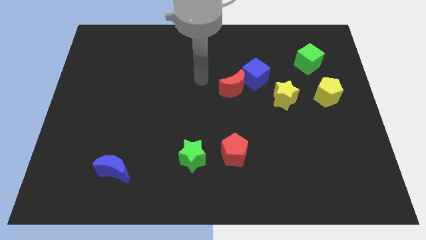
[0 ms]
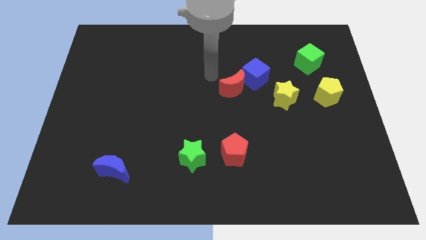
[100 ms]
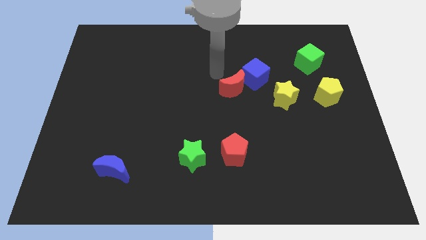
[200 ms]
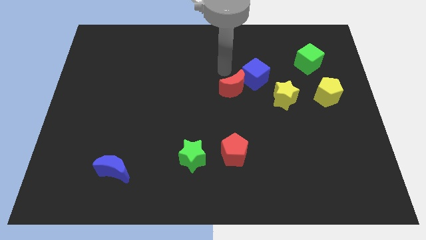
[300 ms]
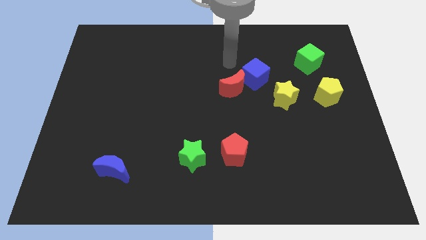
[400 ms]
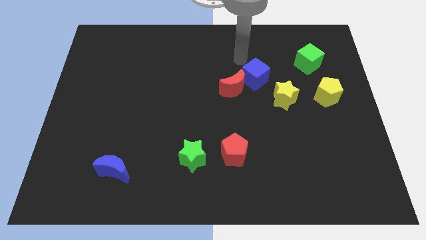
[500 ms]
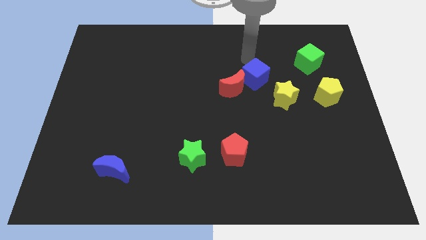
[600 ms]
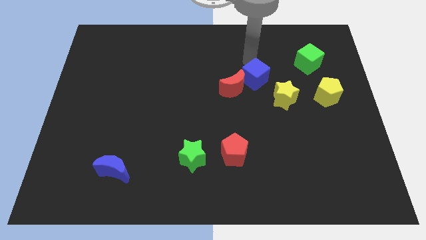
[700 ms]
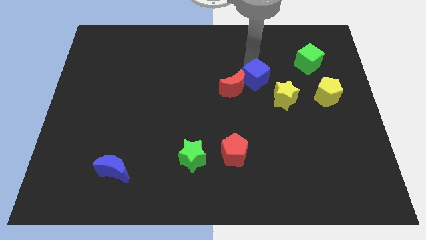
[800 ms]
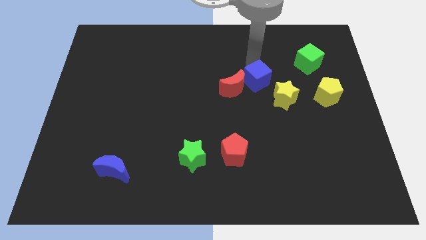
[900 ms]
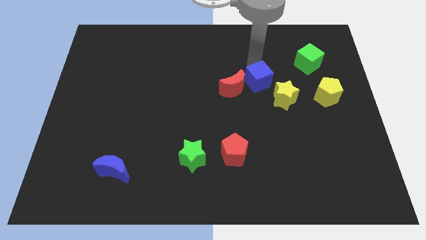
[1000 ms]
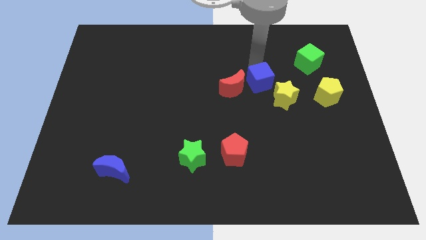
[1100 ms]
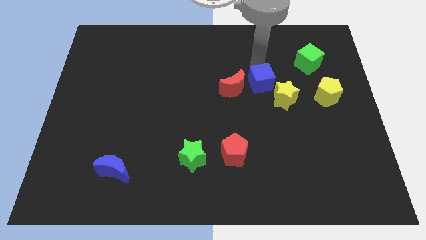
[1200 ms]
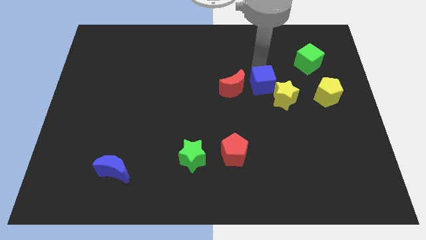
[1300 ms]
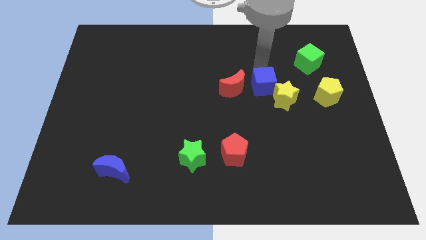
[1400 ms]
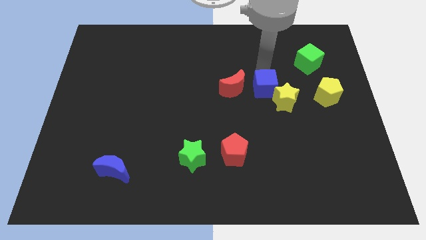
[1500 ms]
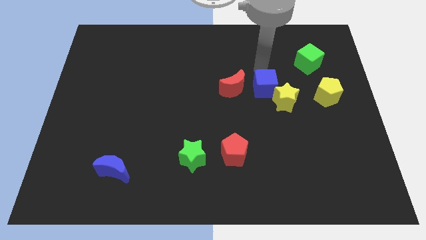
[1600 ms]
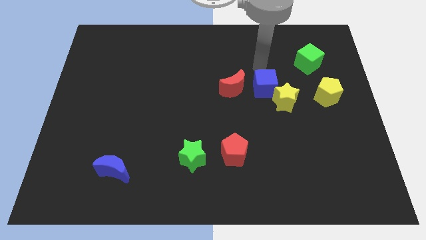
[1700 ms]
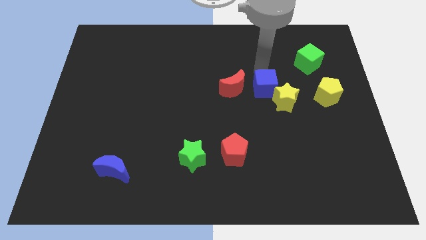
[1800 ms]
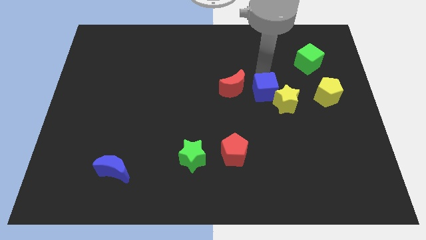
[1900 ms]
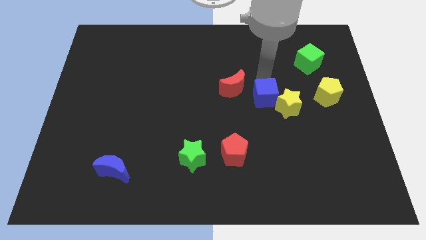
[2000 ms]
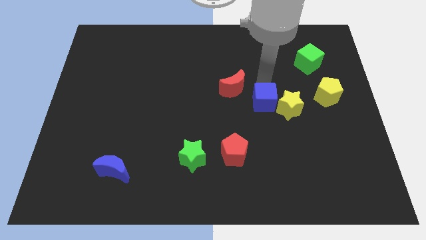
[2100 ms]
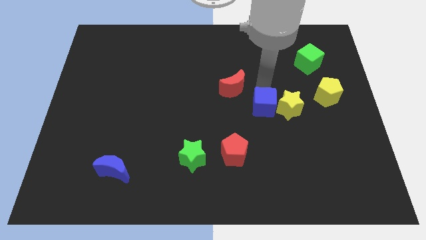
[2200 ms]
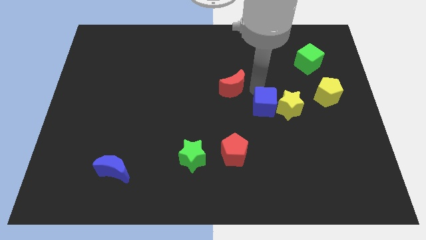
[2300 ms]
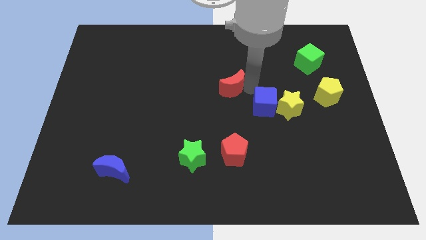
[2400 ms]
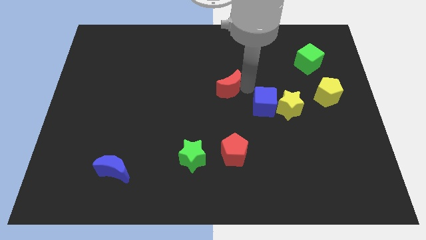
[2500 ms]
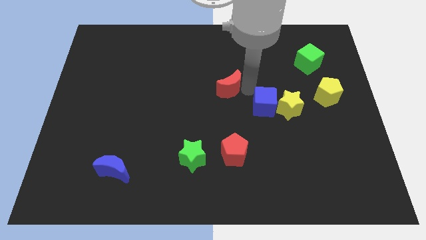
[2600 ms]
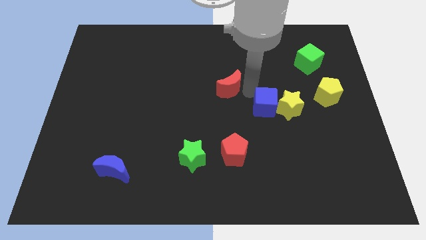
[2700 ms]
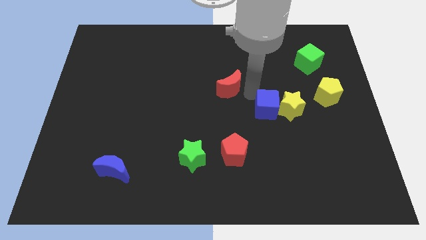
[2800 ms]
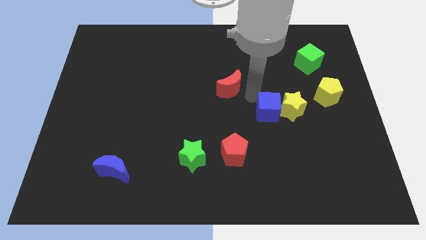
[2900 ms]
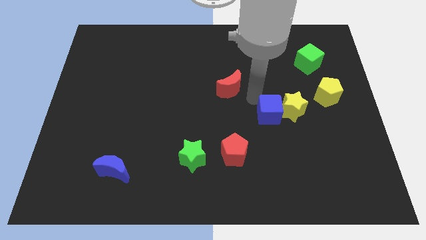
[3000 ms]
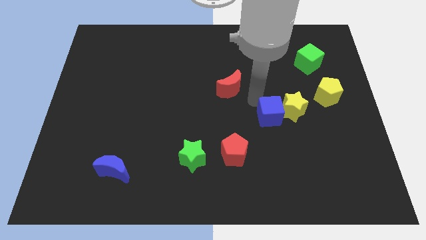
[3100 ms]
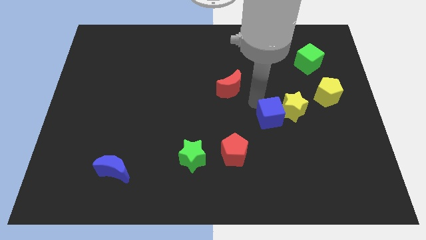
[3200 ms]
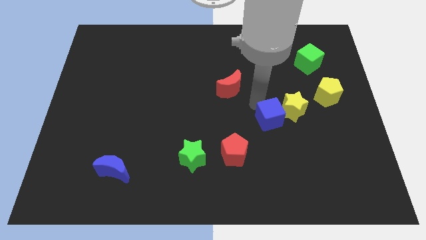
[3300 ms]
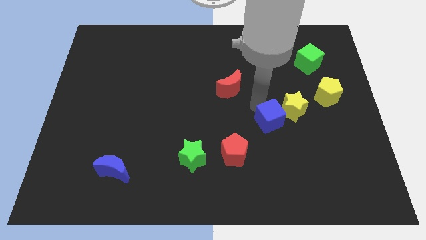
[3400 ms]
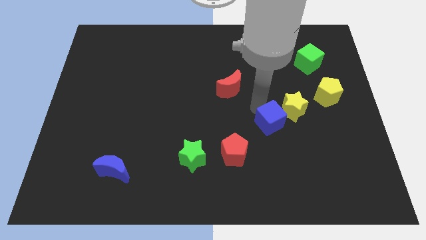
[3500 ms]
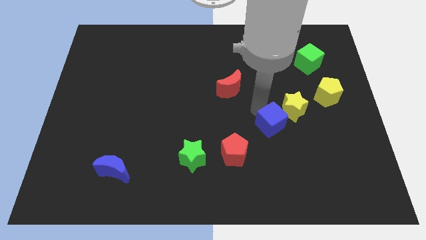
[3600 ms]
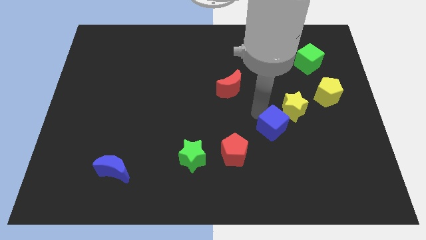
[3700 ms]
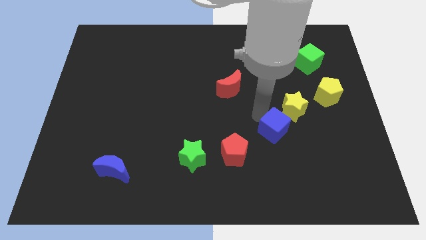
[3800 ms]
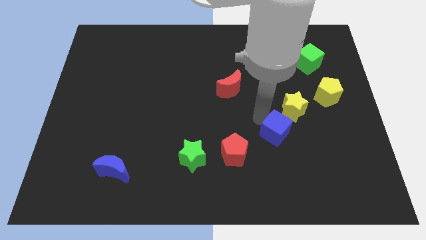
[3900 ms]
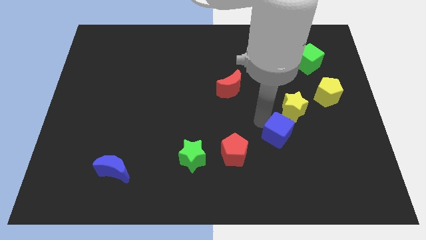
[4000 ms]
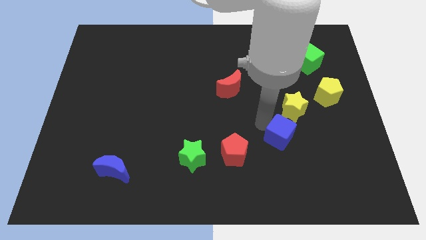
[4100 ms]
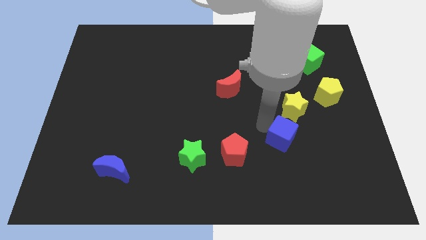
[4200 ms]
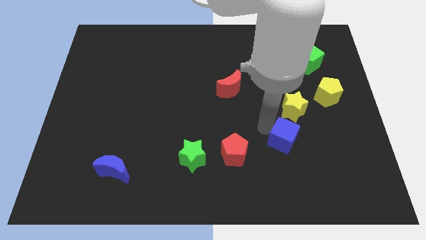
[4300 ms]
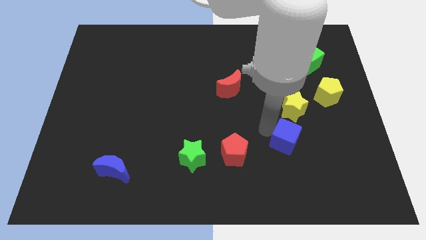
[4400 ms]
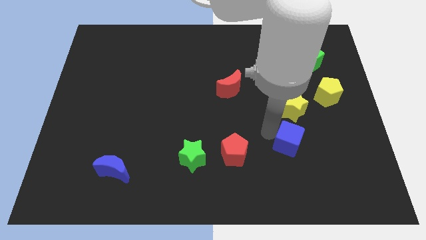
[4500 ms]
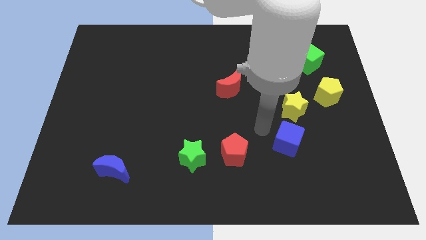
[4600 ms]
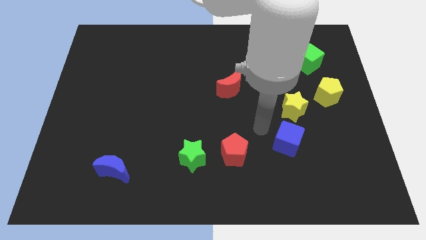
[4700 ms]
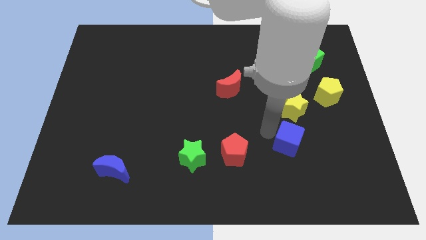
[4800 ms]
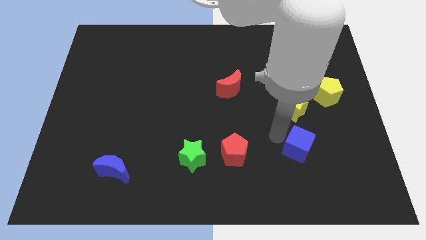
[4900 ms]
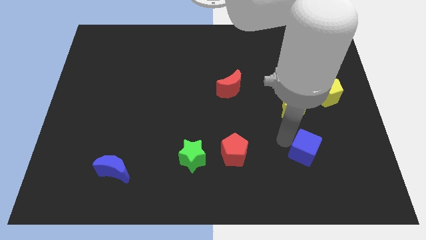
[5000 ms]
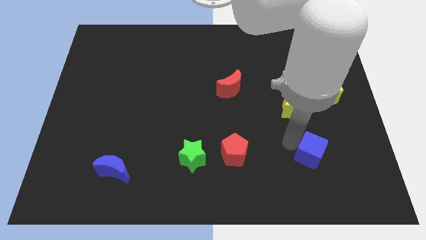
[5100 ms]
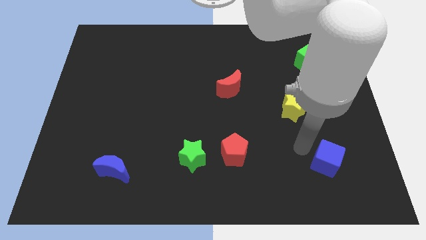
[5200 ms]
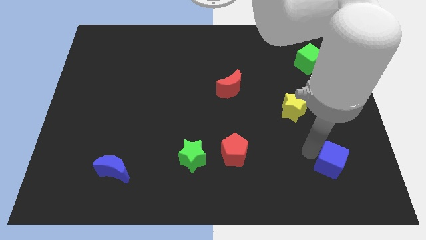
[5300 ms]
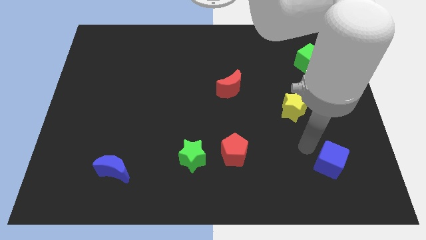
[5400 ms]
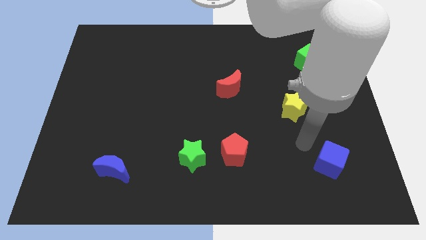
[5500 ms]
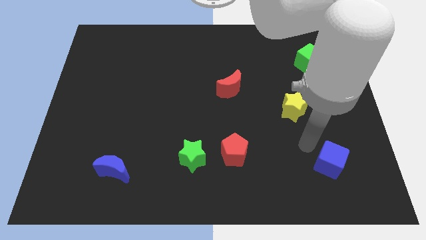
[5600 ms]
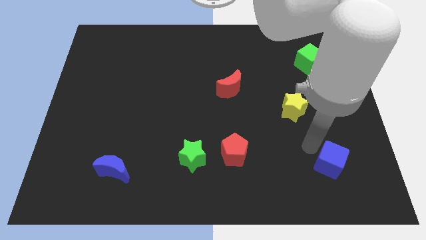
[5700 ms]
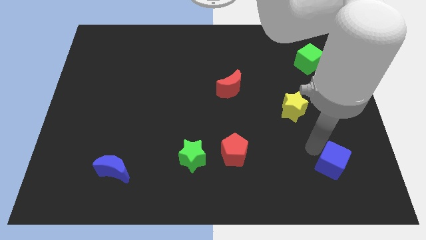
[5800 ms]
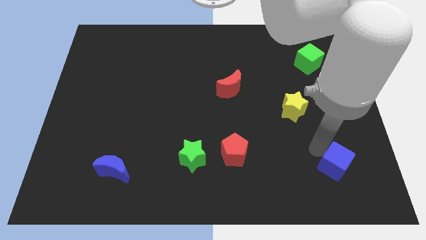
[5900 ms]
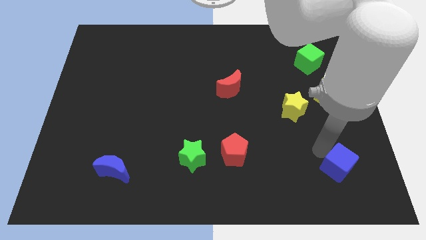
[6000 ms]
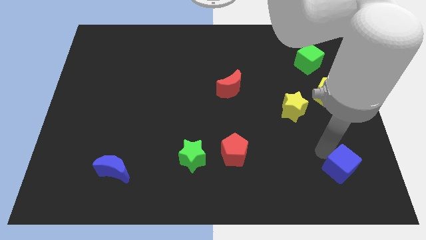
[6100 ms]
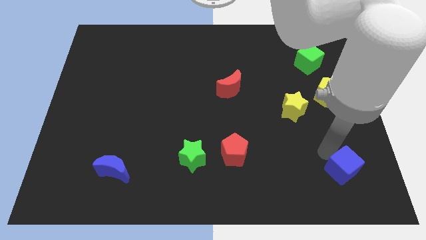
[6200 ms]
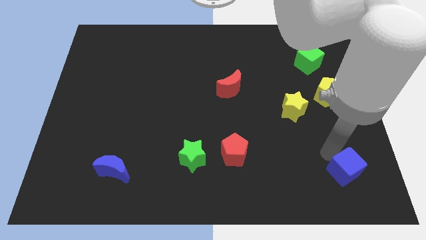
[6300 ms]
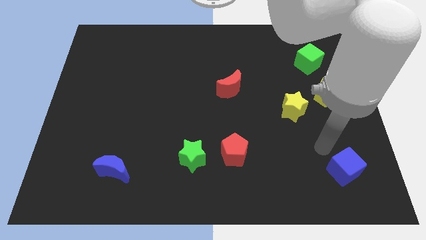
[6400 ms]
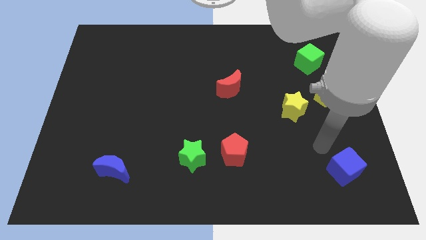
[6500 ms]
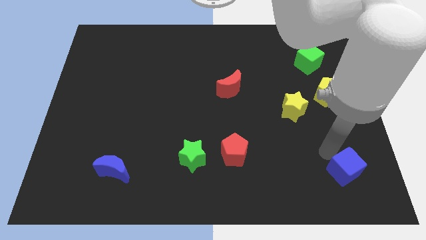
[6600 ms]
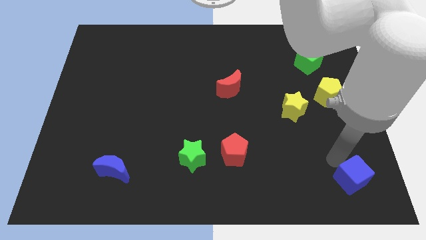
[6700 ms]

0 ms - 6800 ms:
put the blue cube to the bottom right corner
